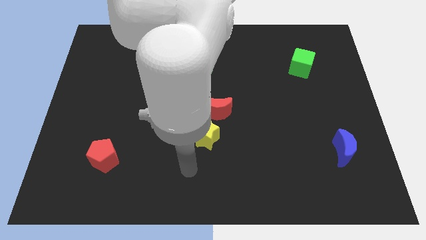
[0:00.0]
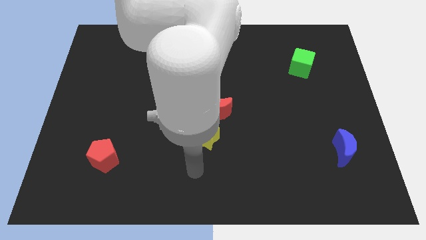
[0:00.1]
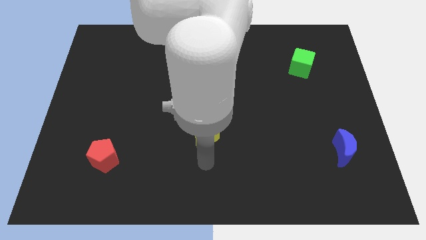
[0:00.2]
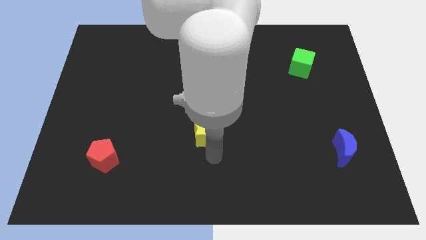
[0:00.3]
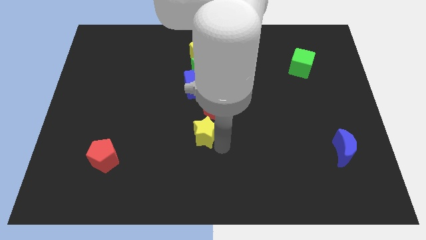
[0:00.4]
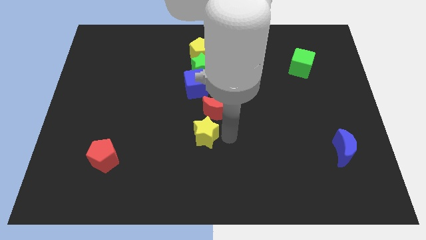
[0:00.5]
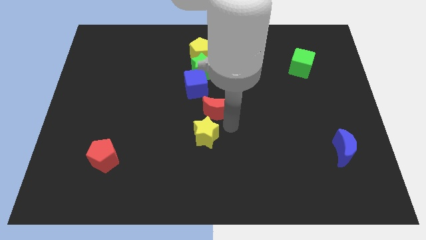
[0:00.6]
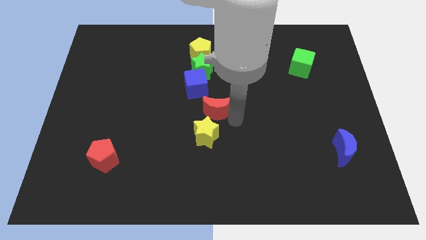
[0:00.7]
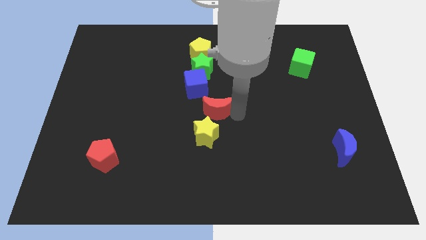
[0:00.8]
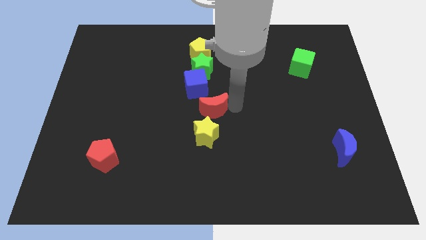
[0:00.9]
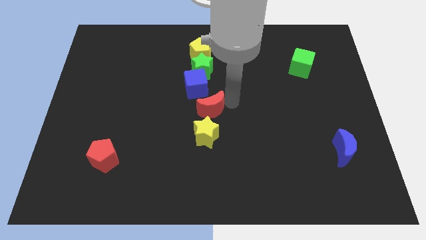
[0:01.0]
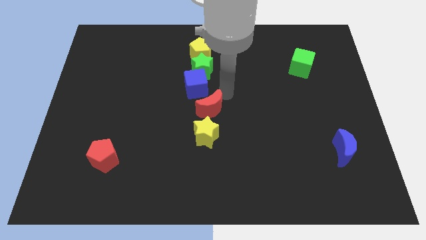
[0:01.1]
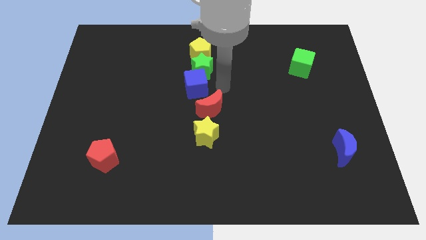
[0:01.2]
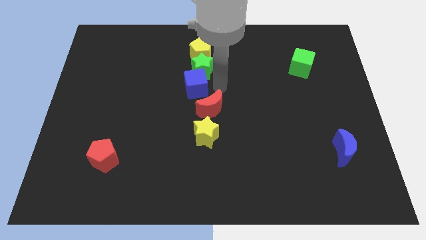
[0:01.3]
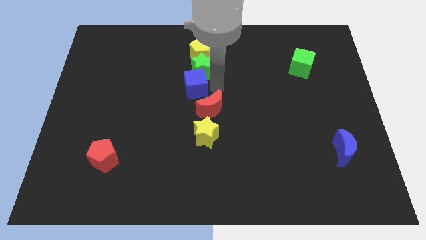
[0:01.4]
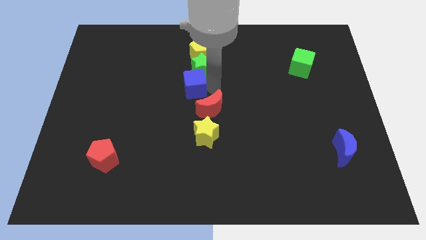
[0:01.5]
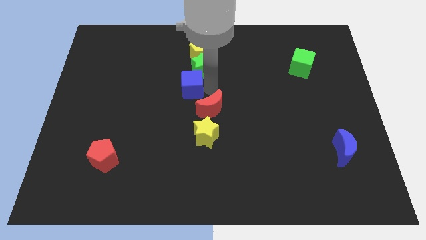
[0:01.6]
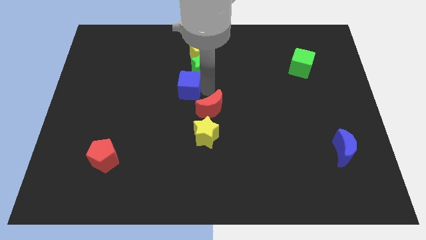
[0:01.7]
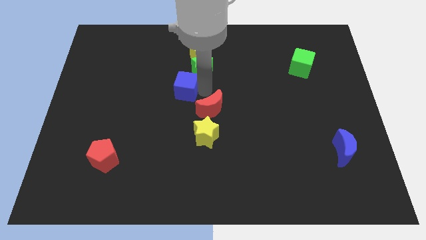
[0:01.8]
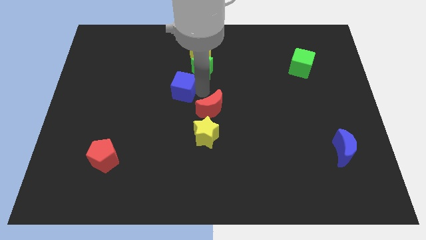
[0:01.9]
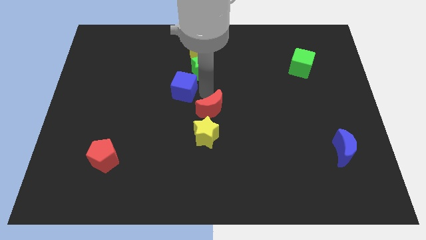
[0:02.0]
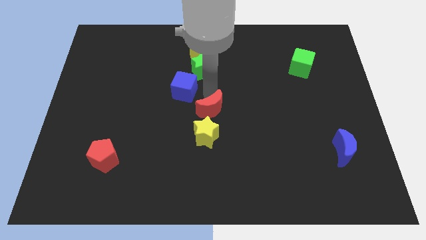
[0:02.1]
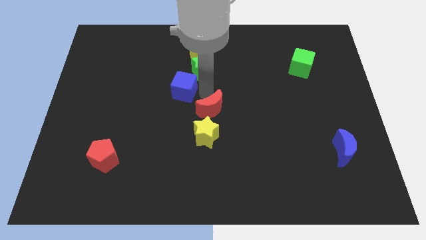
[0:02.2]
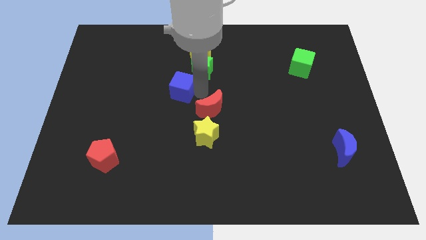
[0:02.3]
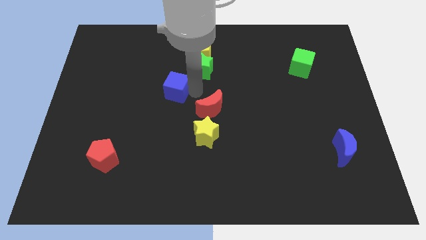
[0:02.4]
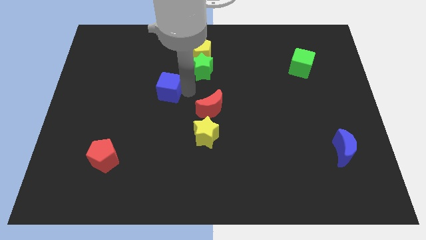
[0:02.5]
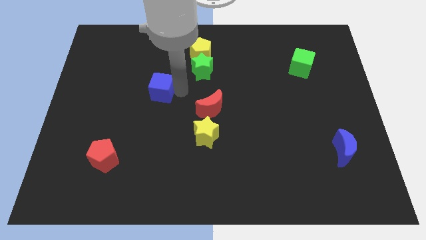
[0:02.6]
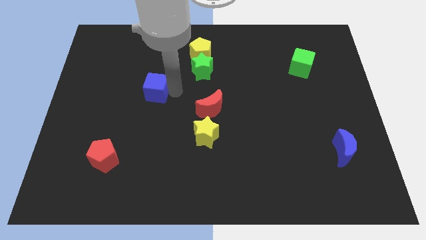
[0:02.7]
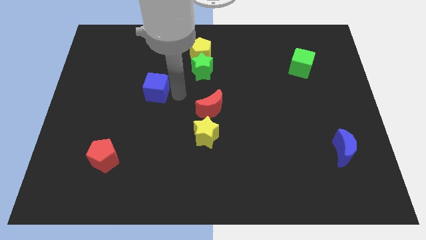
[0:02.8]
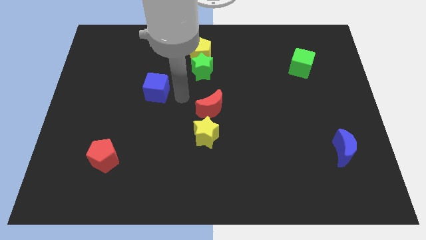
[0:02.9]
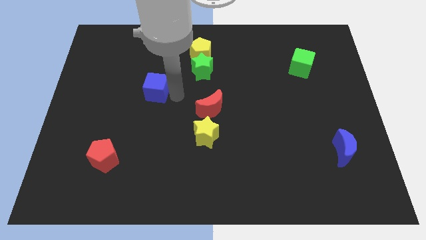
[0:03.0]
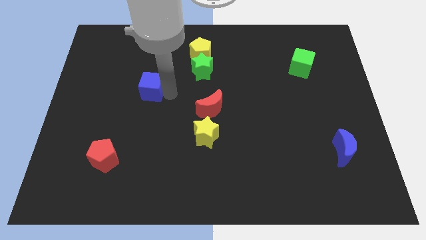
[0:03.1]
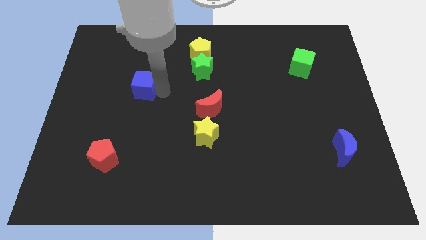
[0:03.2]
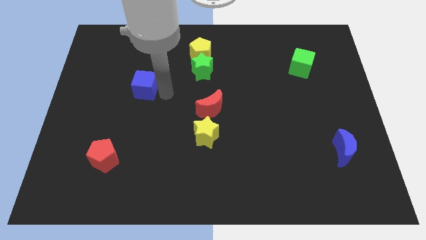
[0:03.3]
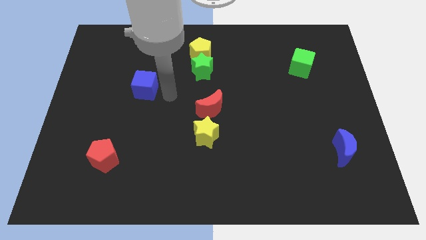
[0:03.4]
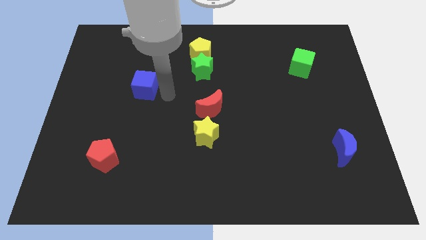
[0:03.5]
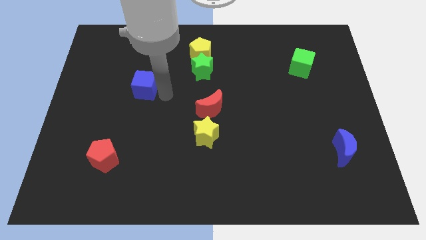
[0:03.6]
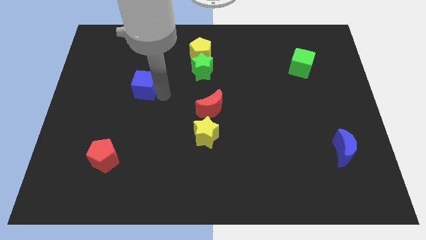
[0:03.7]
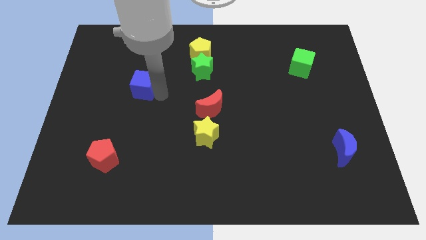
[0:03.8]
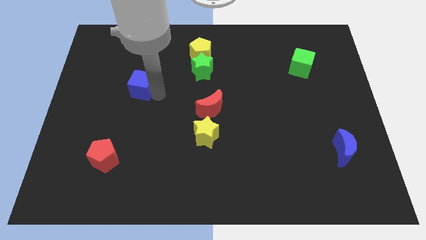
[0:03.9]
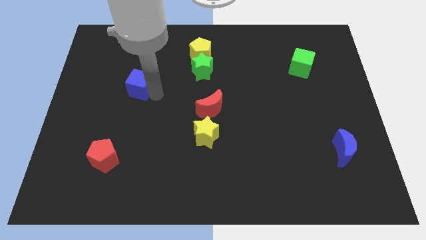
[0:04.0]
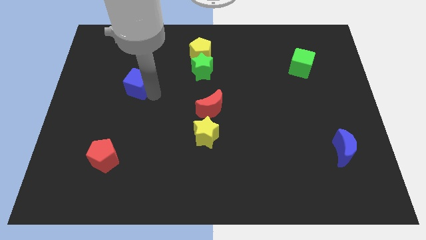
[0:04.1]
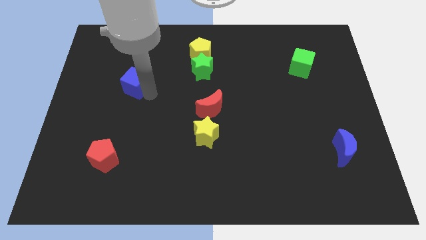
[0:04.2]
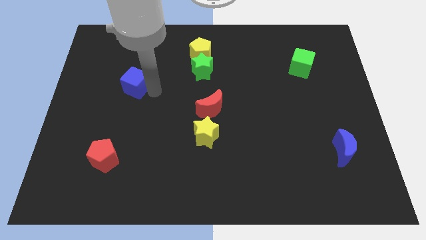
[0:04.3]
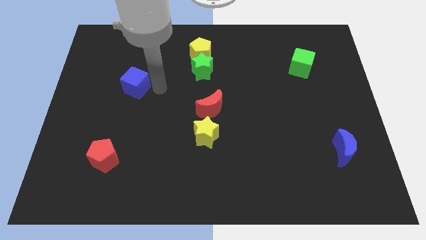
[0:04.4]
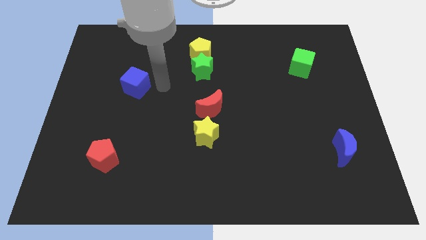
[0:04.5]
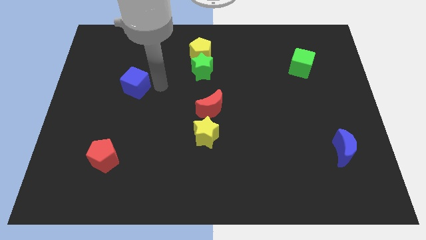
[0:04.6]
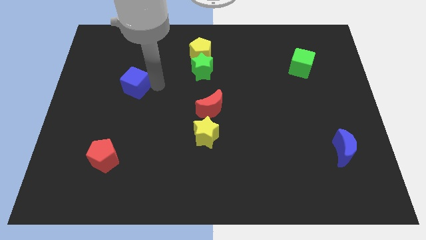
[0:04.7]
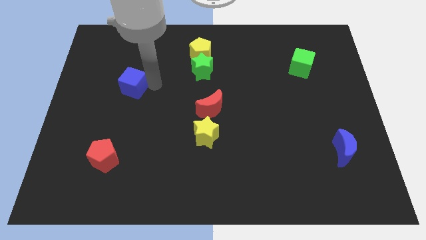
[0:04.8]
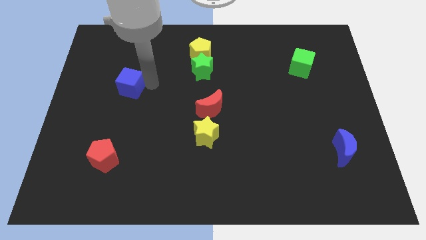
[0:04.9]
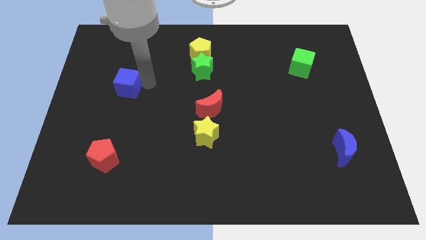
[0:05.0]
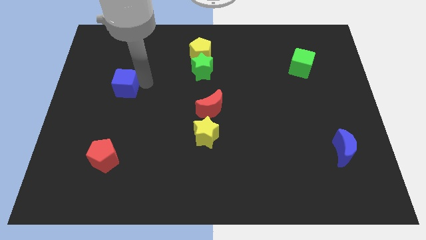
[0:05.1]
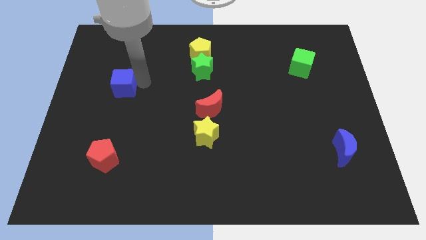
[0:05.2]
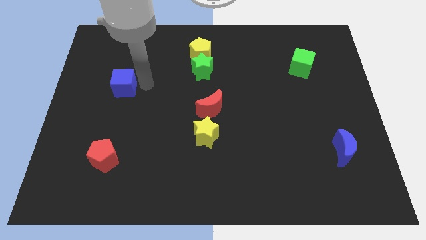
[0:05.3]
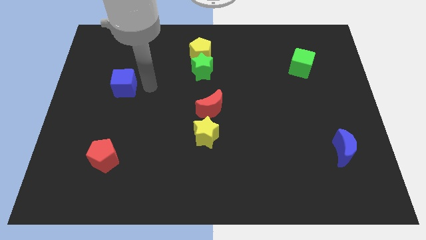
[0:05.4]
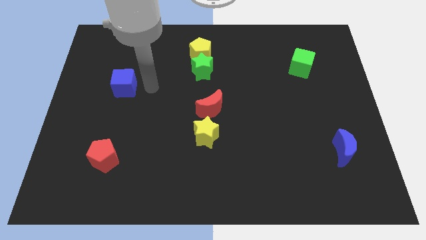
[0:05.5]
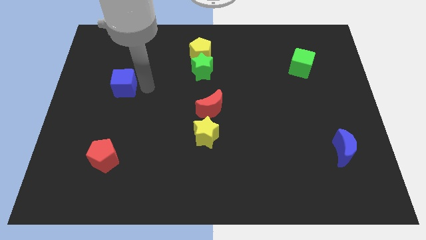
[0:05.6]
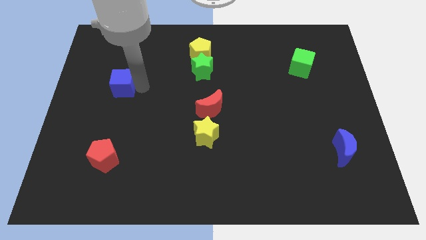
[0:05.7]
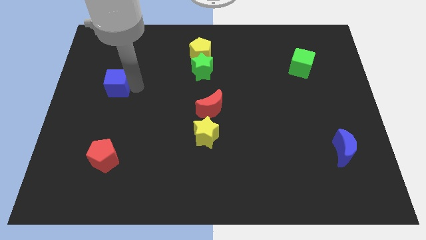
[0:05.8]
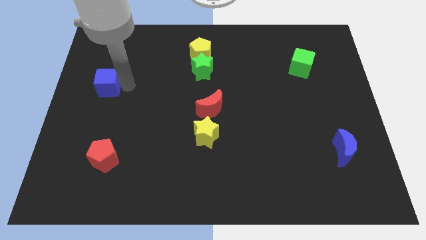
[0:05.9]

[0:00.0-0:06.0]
slide the blue cube to the left side

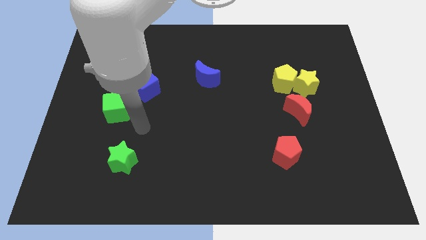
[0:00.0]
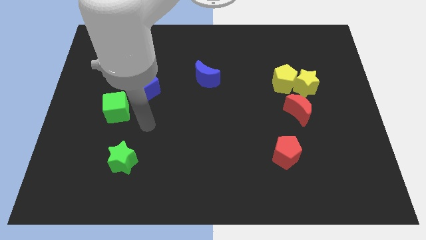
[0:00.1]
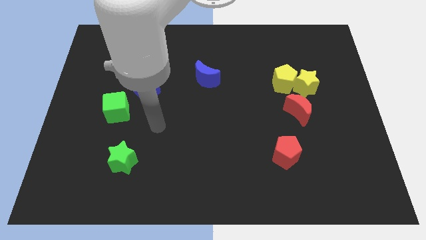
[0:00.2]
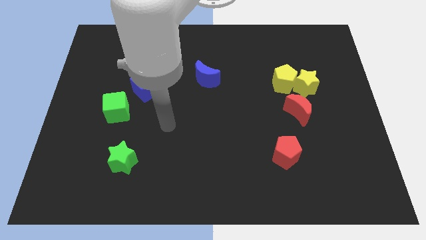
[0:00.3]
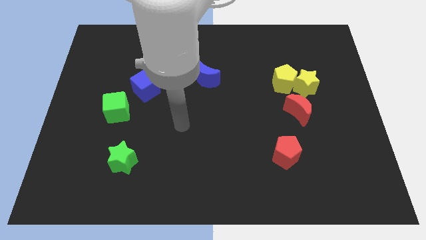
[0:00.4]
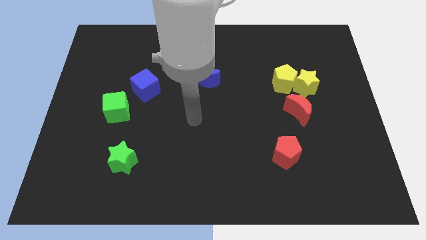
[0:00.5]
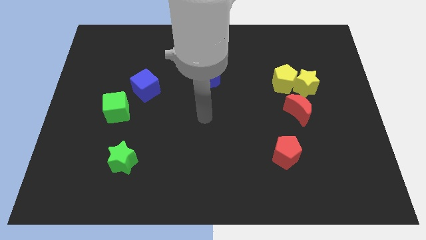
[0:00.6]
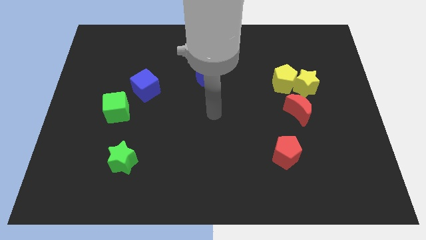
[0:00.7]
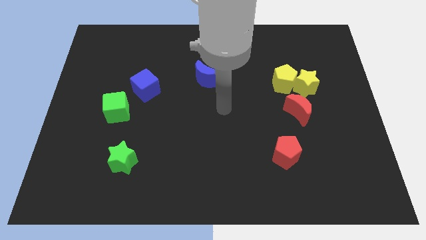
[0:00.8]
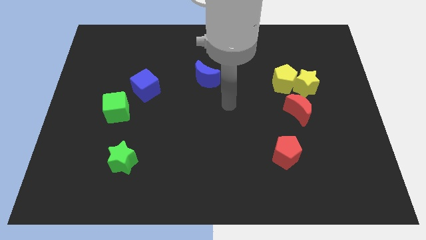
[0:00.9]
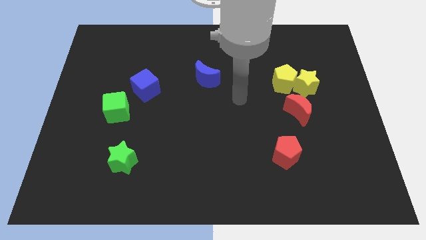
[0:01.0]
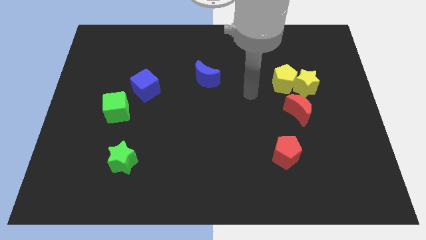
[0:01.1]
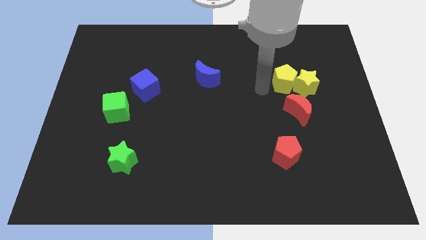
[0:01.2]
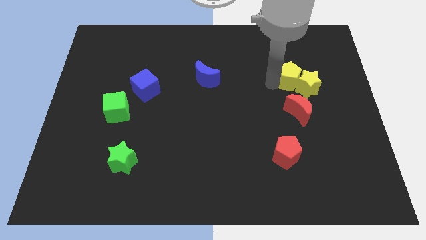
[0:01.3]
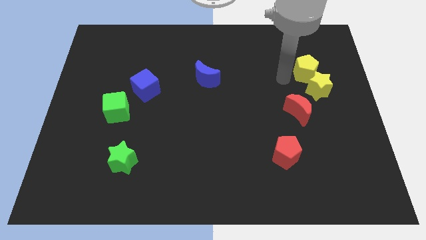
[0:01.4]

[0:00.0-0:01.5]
push the yellow star to the right side

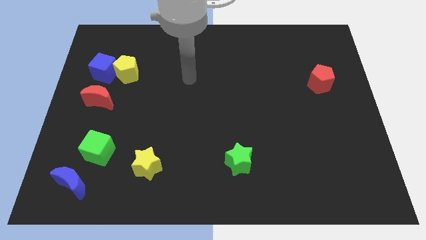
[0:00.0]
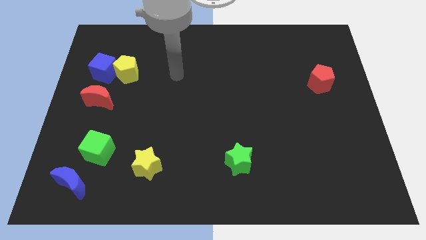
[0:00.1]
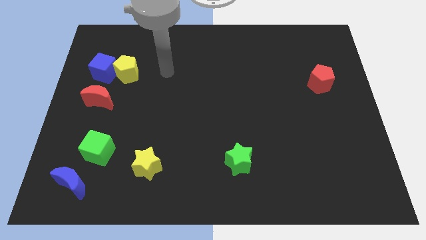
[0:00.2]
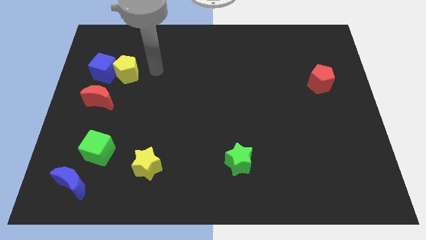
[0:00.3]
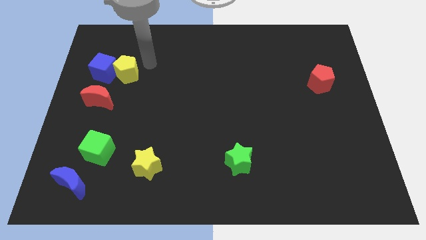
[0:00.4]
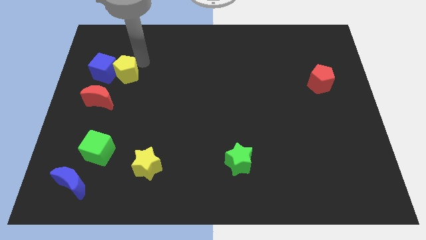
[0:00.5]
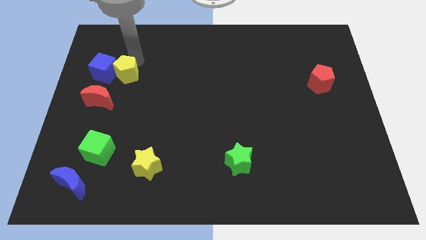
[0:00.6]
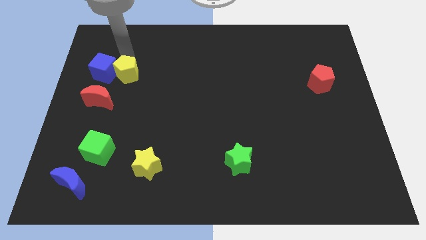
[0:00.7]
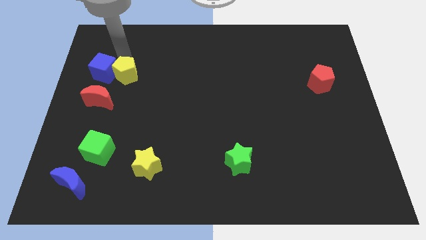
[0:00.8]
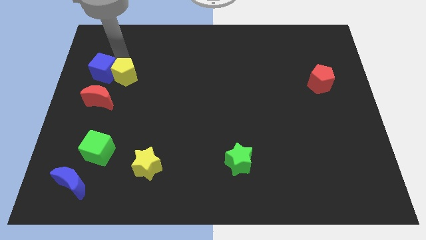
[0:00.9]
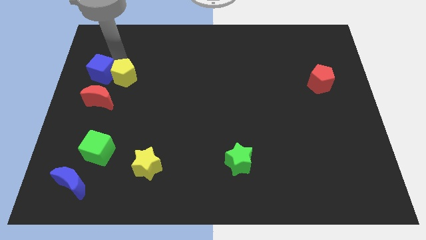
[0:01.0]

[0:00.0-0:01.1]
push the blue cube to the center left
